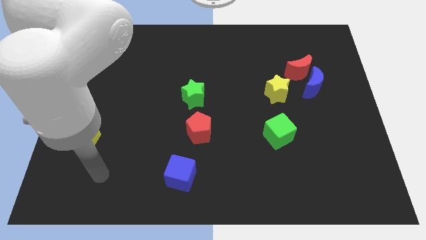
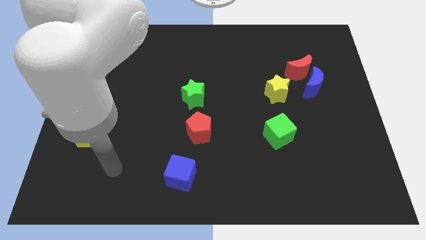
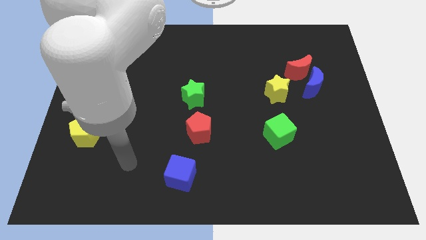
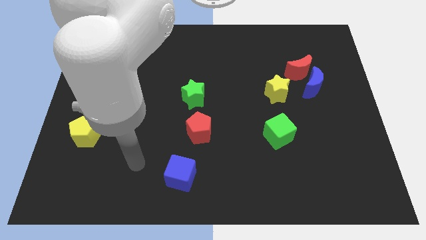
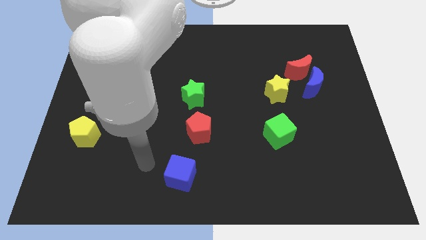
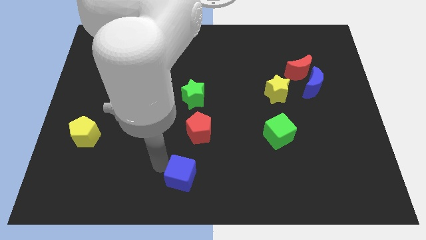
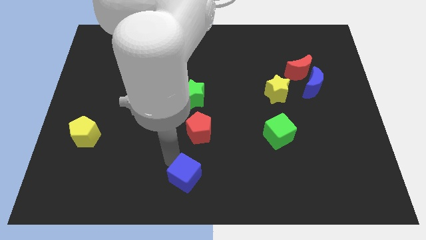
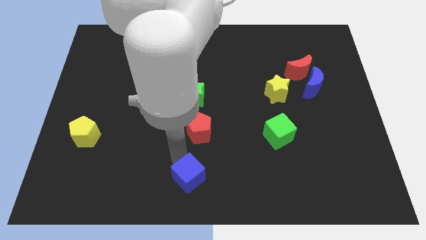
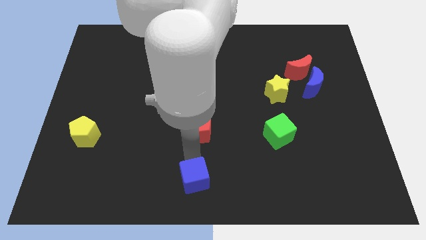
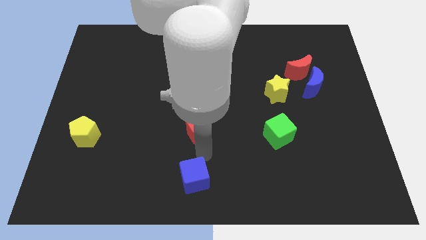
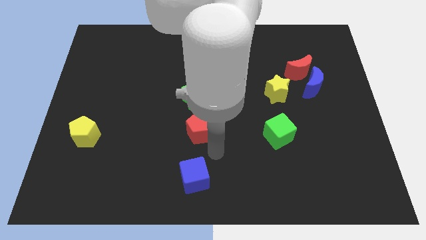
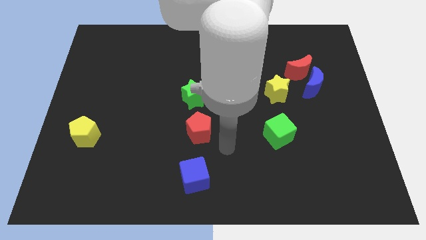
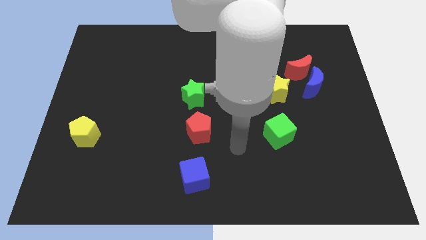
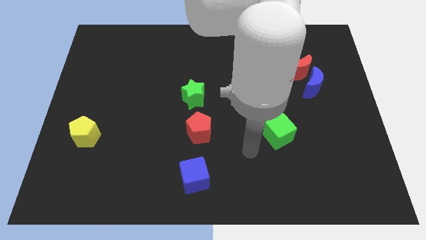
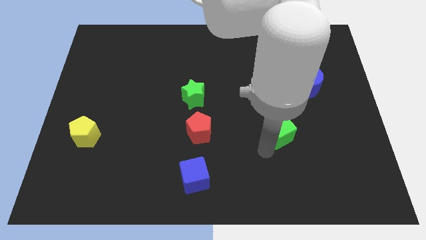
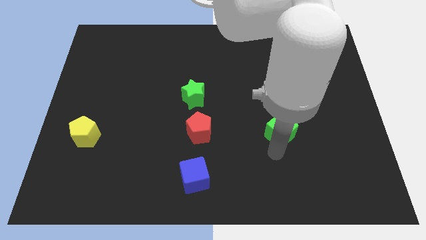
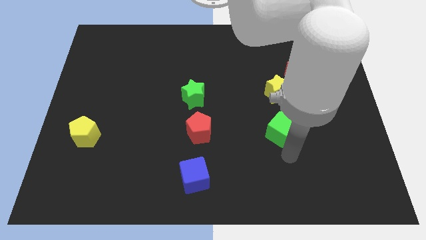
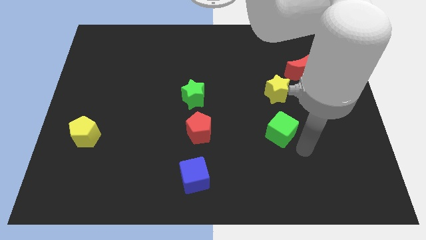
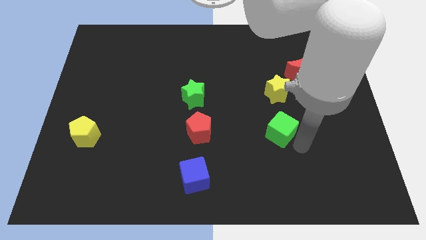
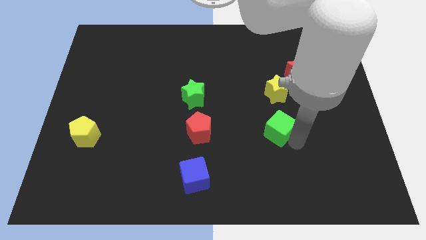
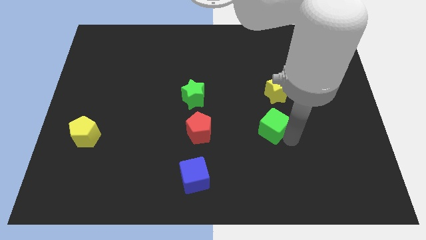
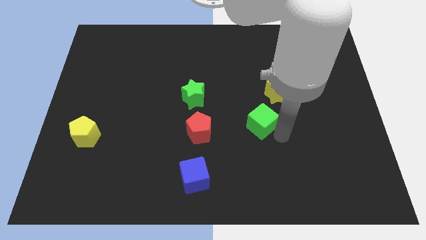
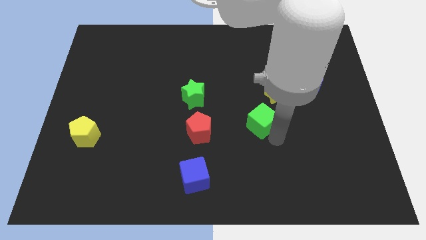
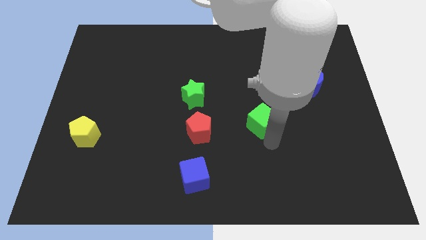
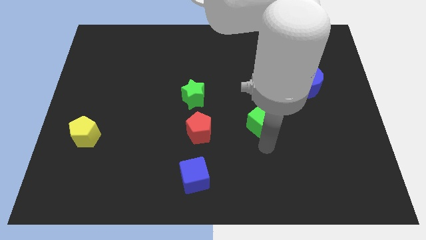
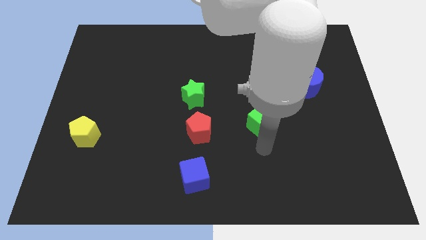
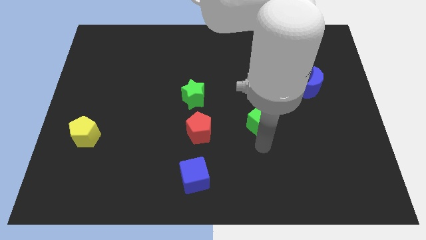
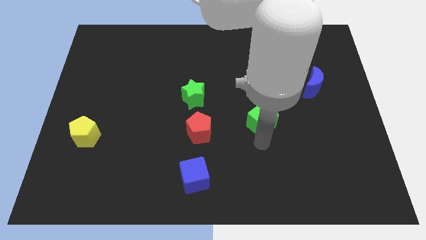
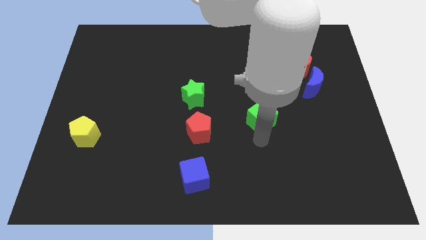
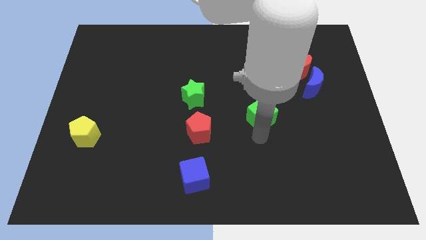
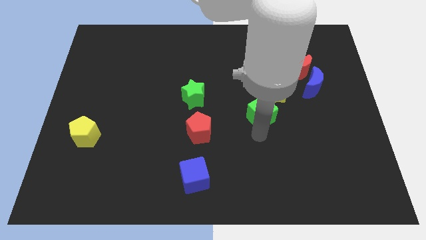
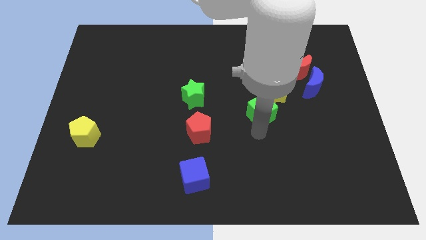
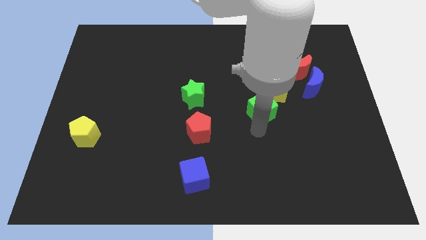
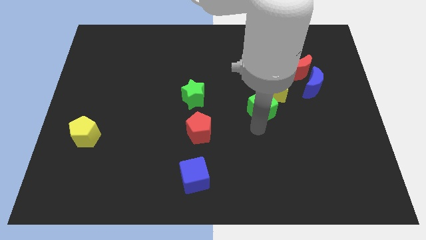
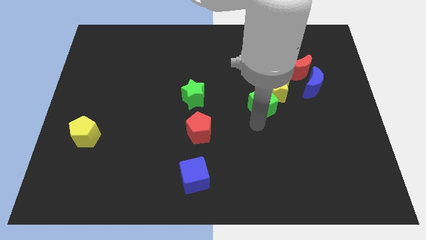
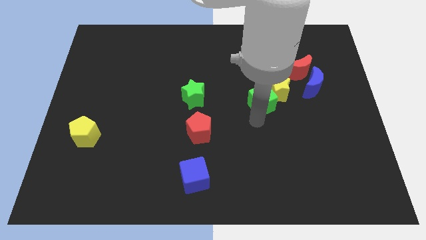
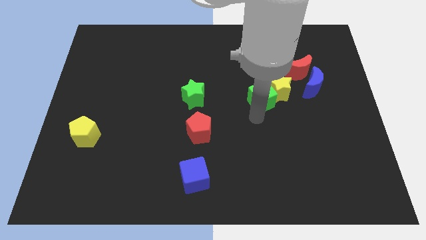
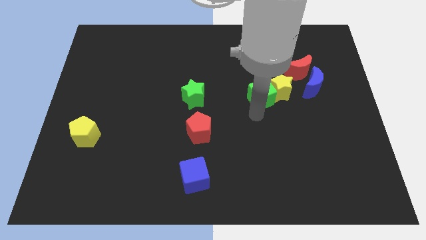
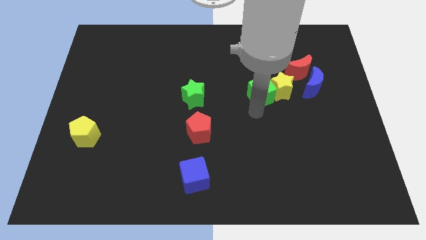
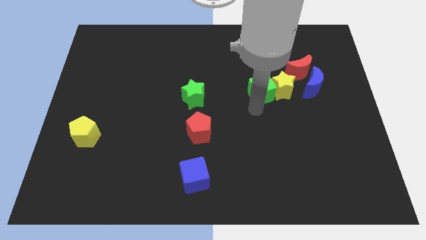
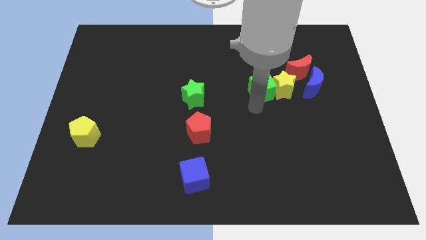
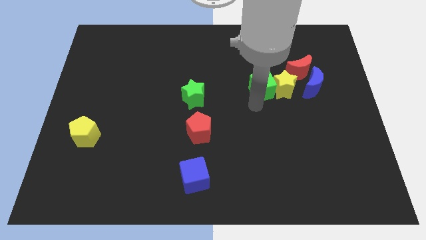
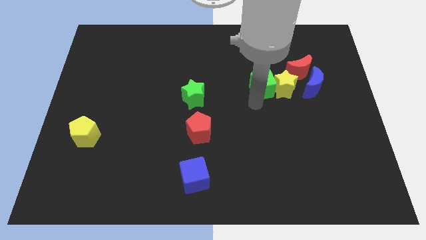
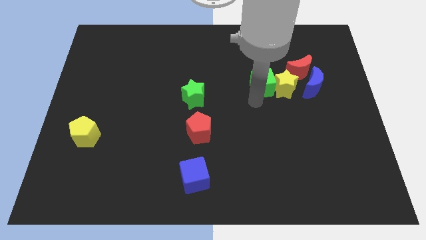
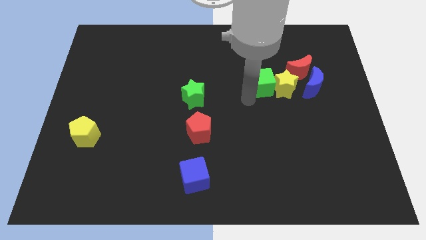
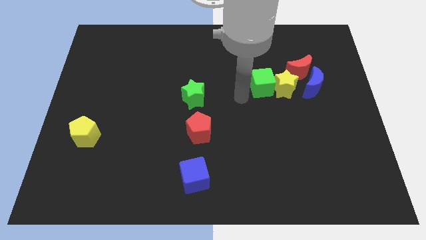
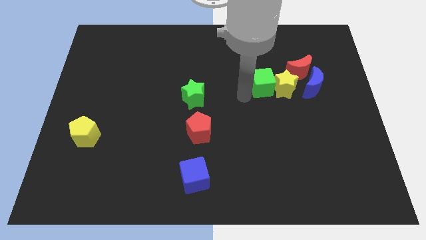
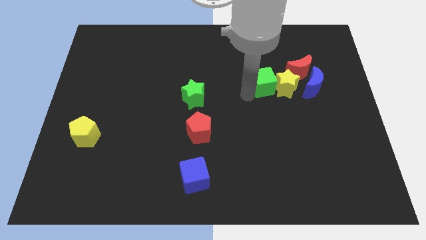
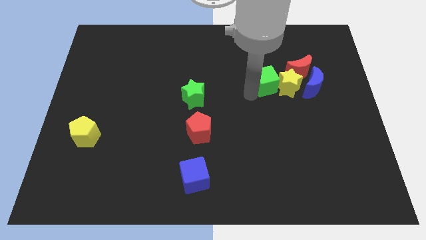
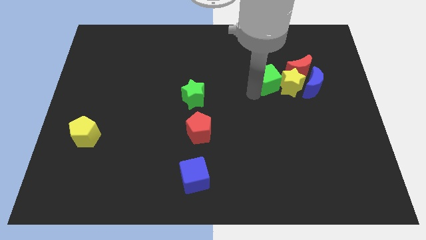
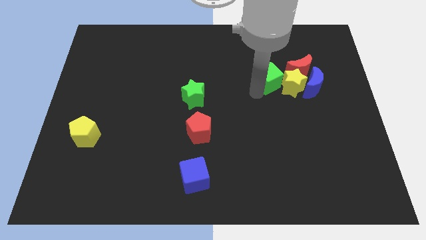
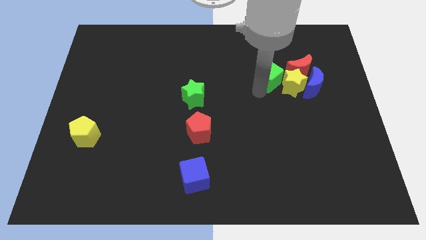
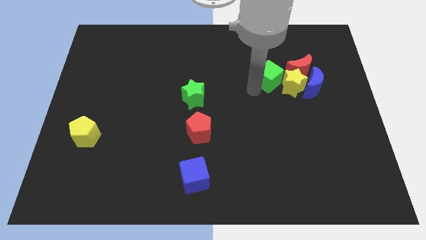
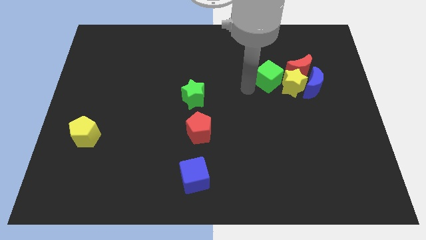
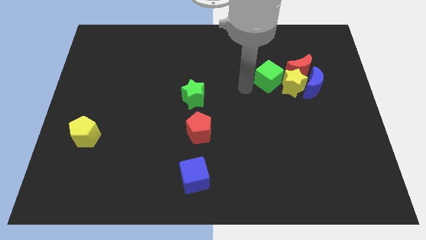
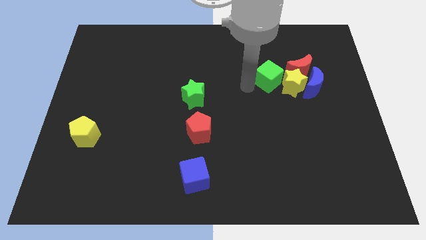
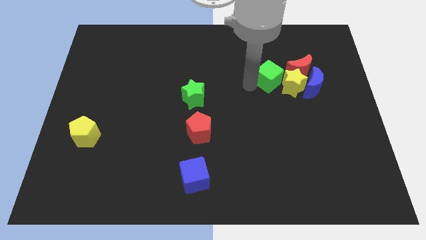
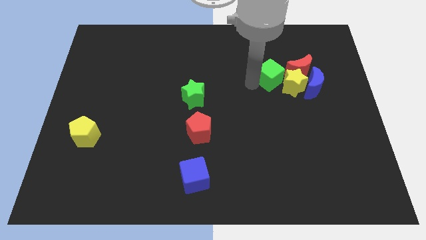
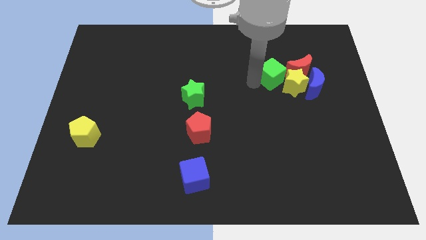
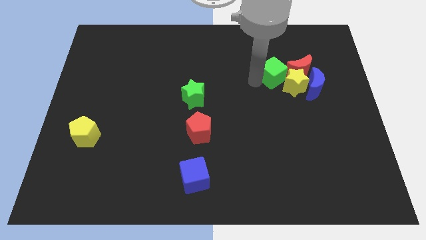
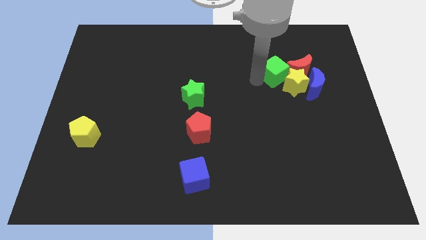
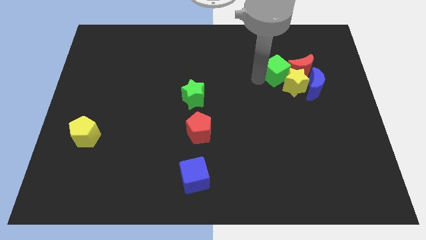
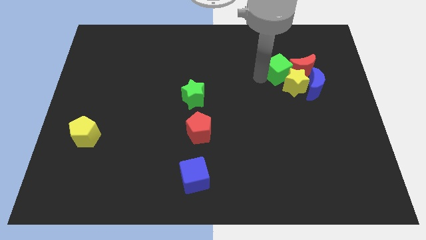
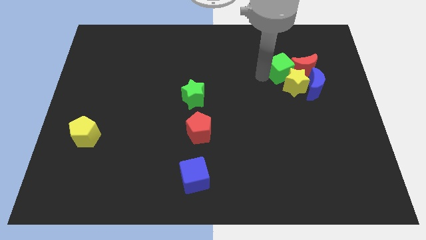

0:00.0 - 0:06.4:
push the green cube close to the red moon
